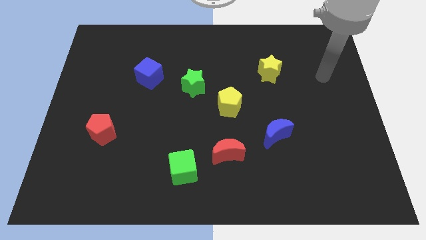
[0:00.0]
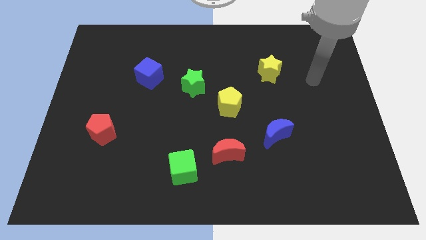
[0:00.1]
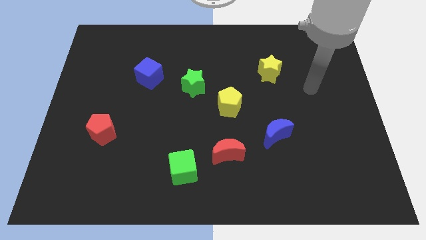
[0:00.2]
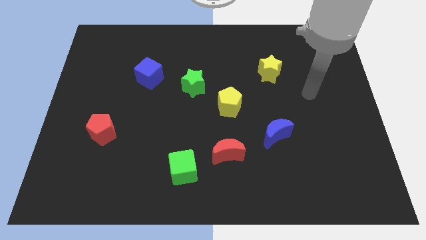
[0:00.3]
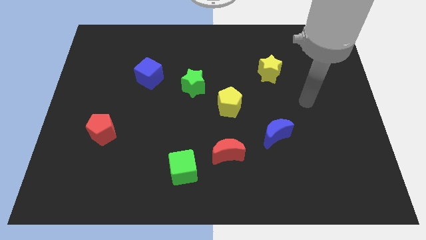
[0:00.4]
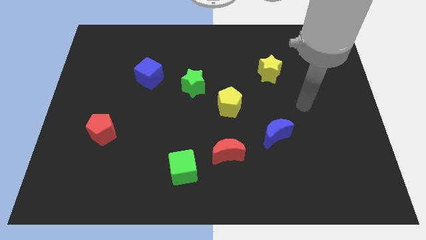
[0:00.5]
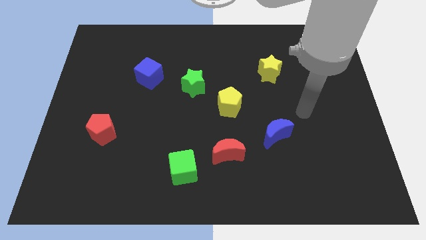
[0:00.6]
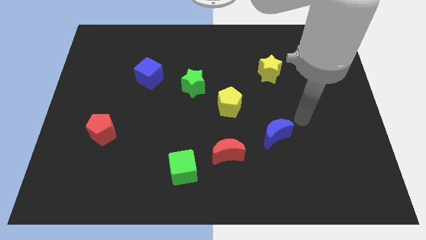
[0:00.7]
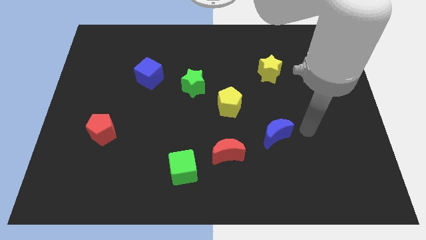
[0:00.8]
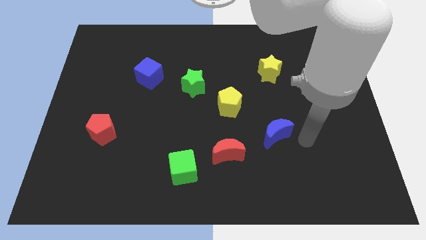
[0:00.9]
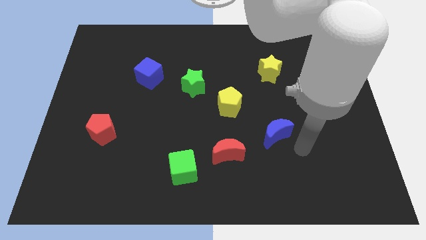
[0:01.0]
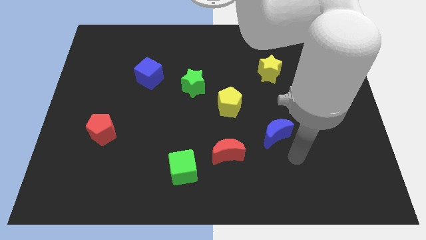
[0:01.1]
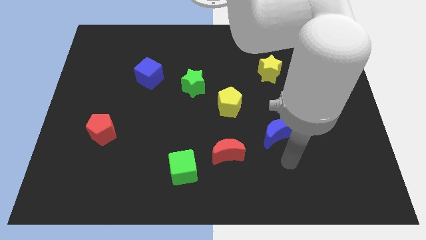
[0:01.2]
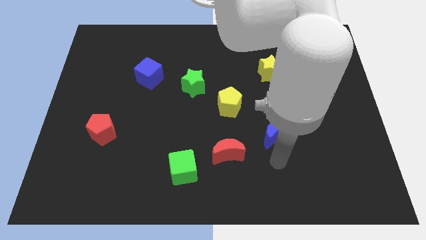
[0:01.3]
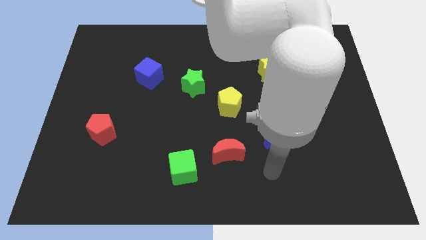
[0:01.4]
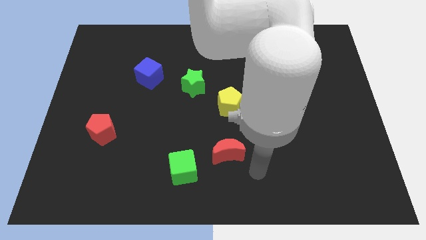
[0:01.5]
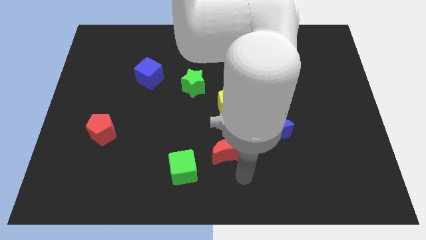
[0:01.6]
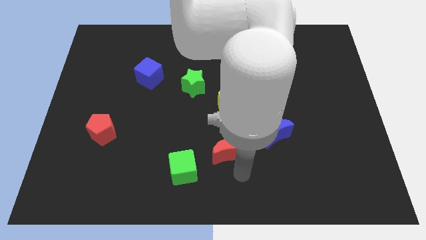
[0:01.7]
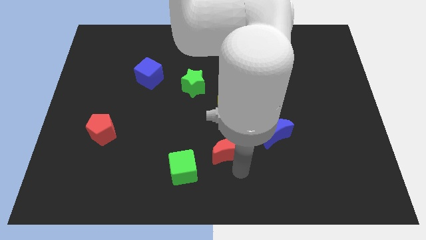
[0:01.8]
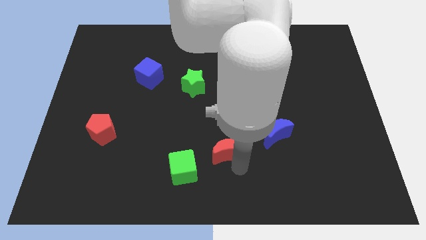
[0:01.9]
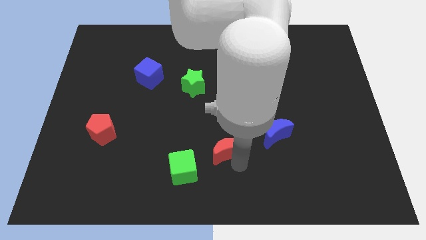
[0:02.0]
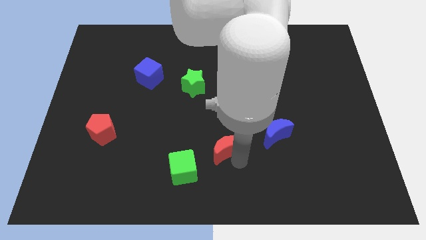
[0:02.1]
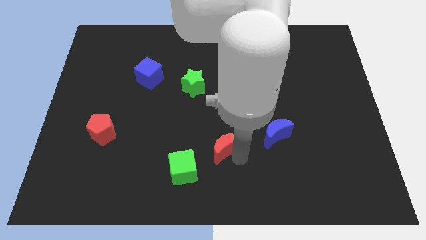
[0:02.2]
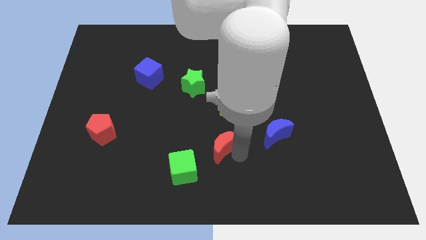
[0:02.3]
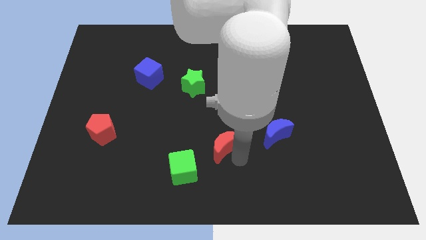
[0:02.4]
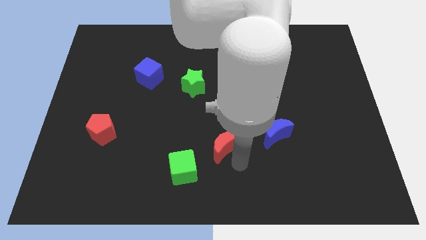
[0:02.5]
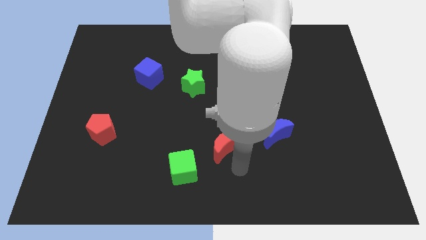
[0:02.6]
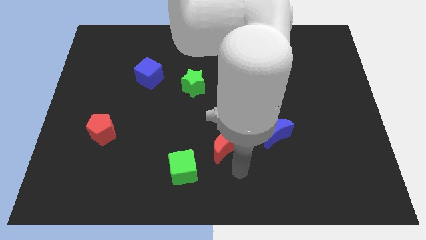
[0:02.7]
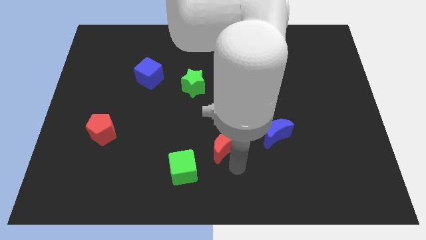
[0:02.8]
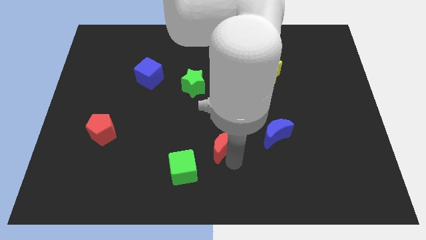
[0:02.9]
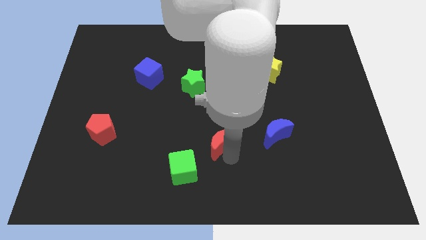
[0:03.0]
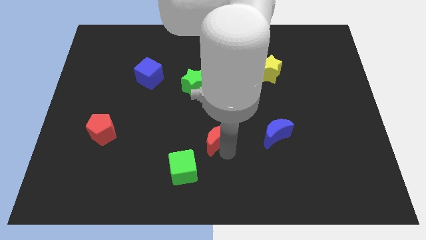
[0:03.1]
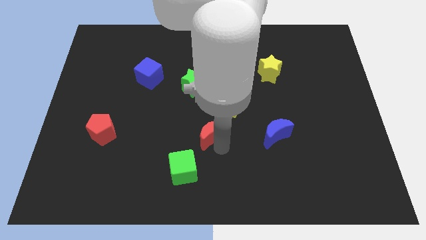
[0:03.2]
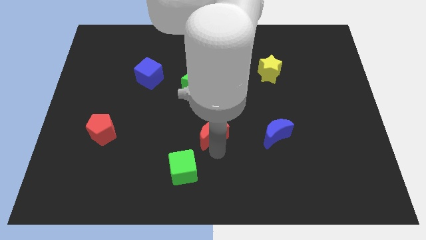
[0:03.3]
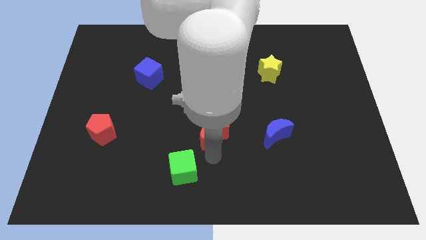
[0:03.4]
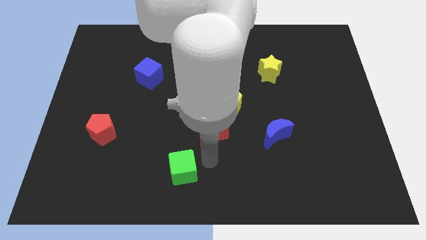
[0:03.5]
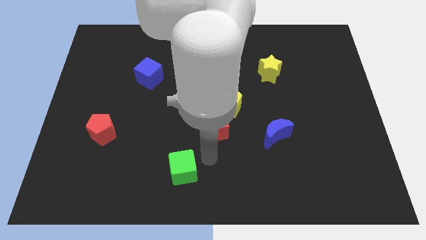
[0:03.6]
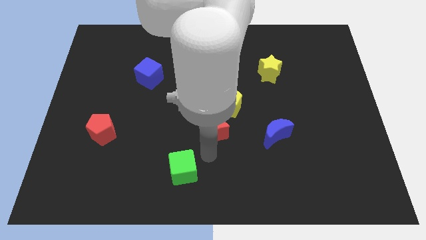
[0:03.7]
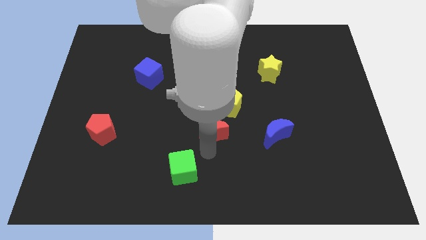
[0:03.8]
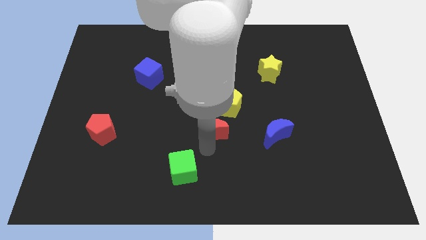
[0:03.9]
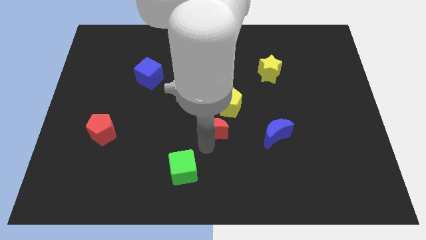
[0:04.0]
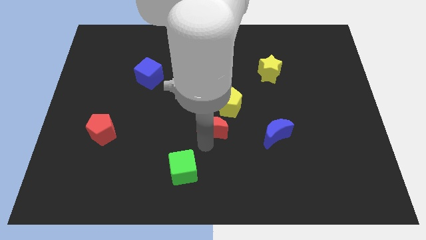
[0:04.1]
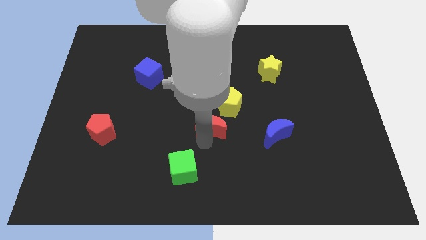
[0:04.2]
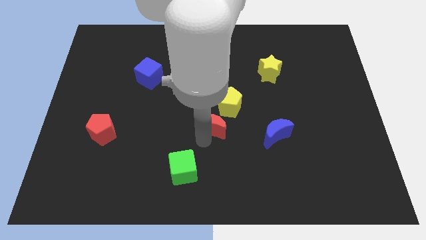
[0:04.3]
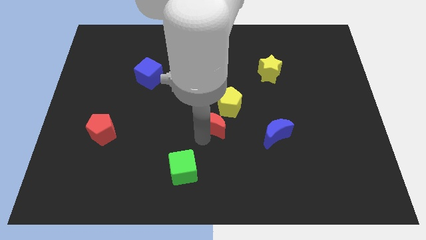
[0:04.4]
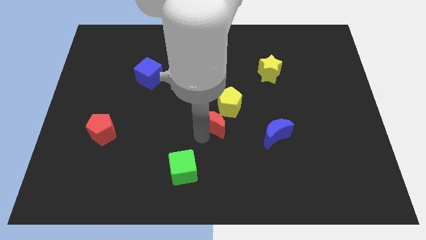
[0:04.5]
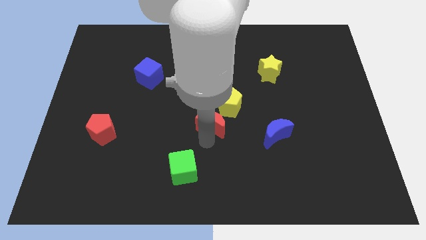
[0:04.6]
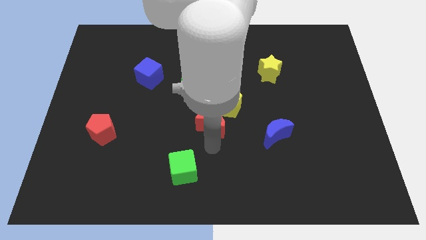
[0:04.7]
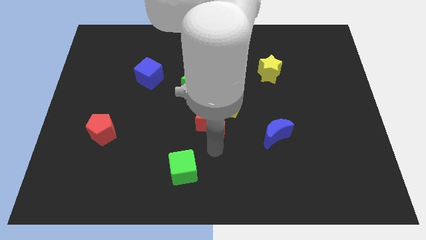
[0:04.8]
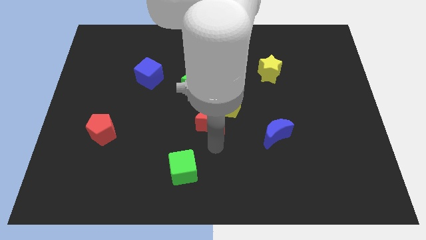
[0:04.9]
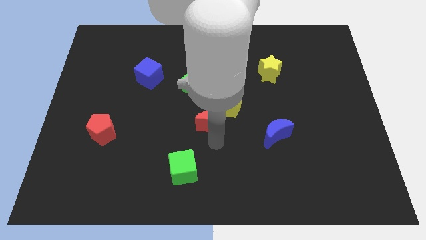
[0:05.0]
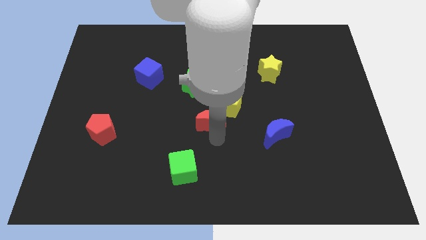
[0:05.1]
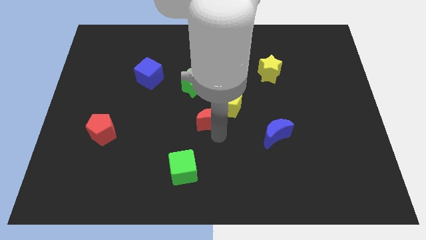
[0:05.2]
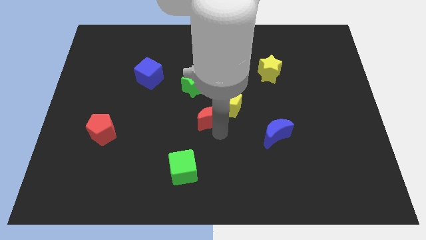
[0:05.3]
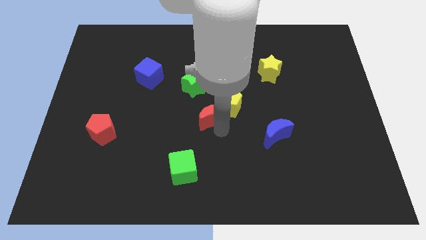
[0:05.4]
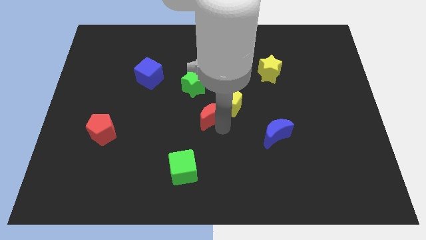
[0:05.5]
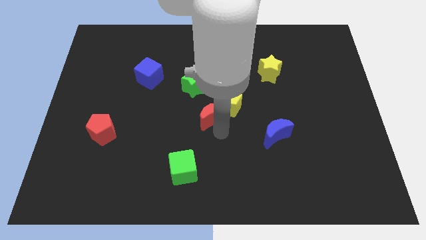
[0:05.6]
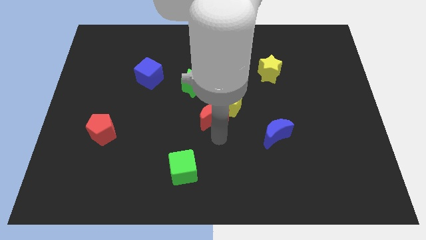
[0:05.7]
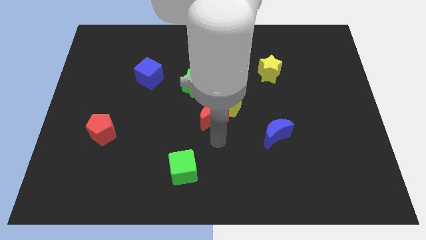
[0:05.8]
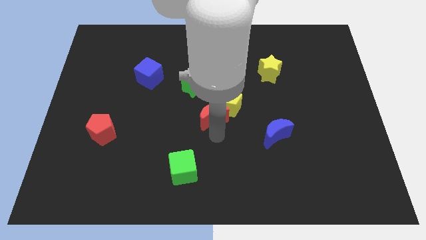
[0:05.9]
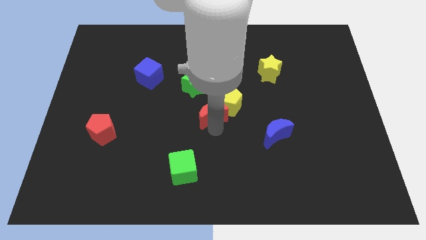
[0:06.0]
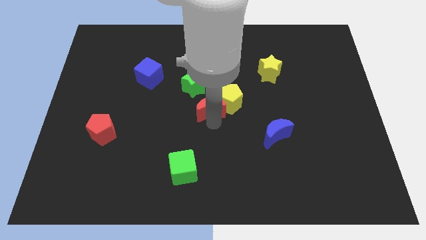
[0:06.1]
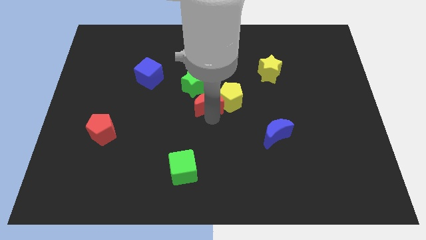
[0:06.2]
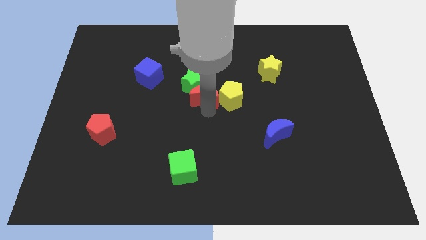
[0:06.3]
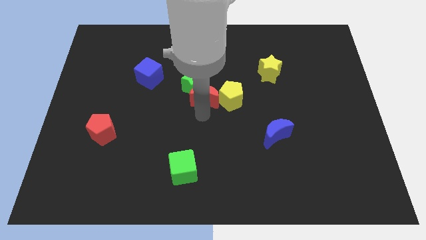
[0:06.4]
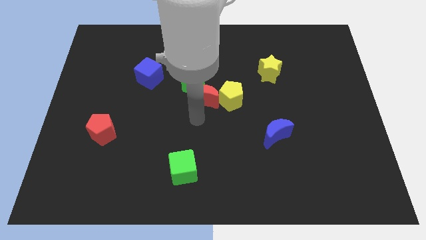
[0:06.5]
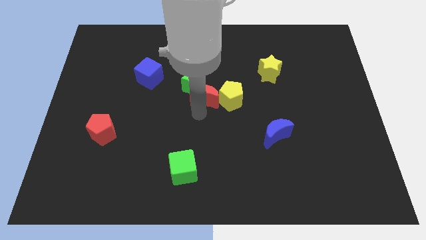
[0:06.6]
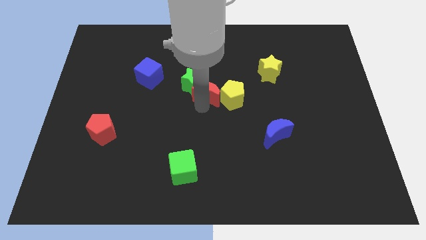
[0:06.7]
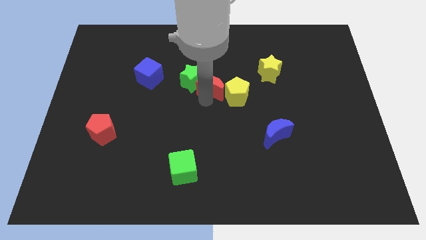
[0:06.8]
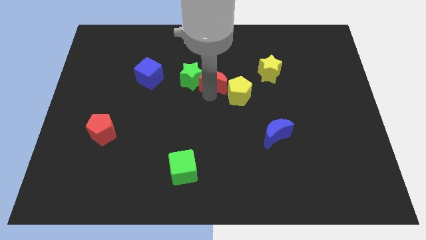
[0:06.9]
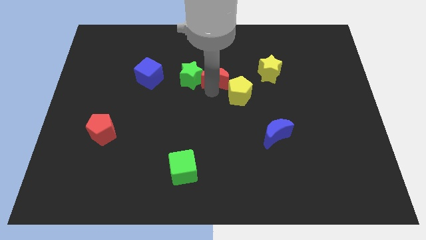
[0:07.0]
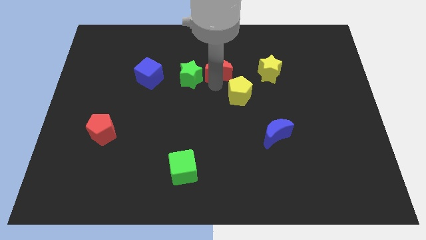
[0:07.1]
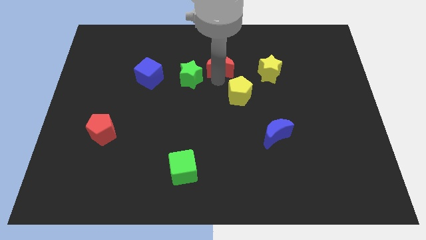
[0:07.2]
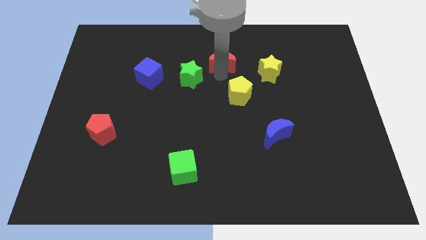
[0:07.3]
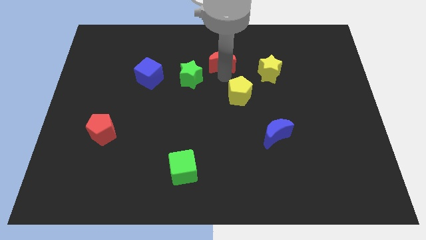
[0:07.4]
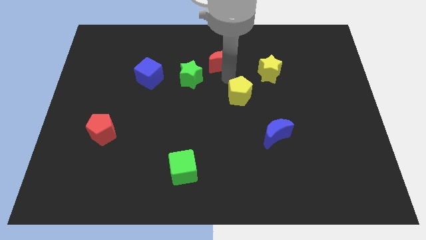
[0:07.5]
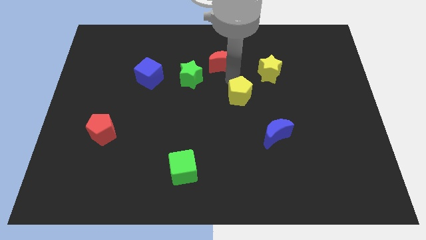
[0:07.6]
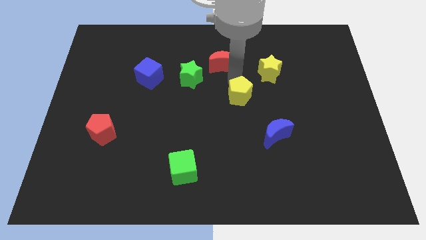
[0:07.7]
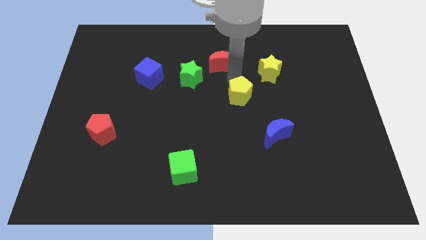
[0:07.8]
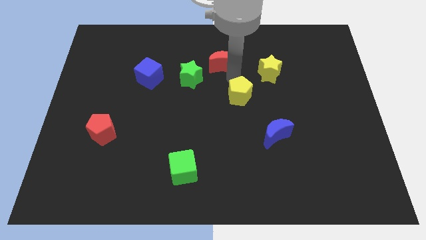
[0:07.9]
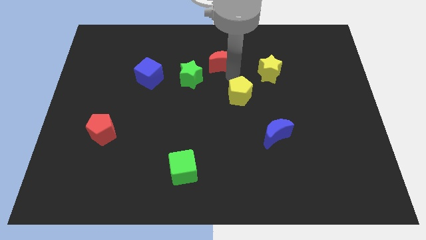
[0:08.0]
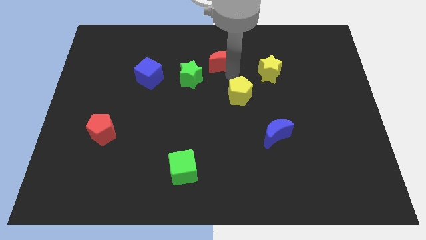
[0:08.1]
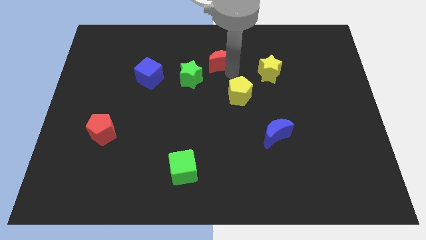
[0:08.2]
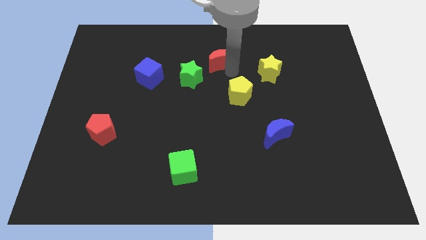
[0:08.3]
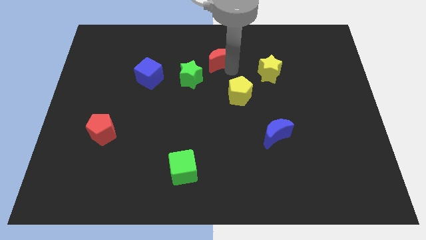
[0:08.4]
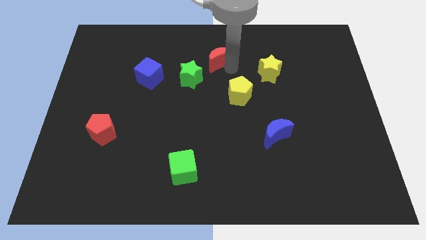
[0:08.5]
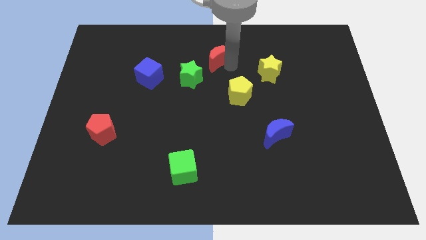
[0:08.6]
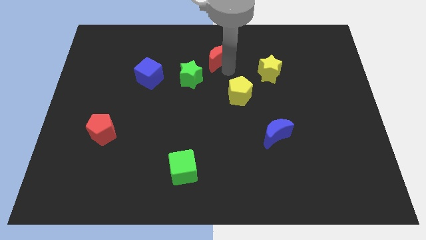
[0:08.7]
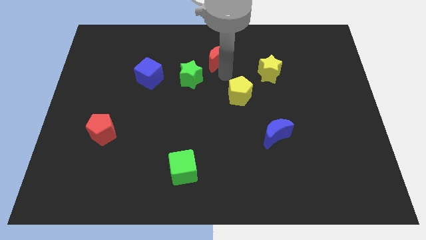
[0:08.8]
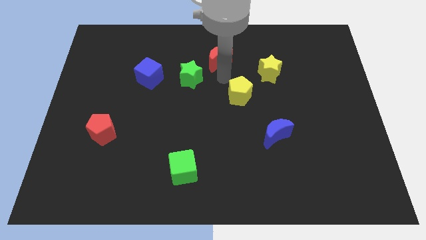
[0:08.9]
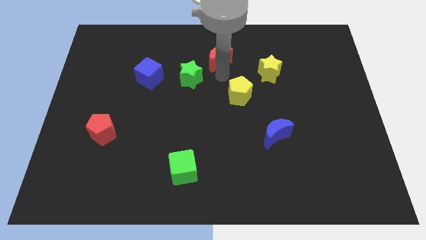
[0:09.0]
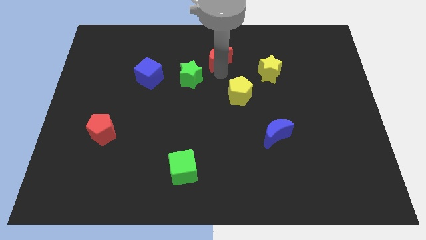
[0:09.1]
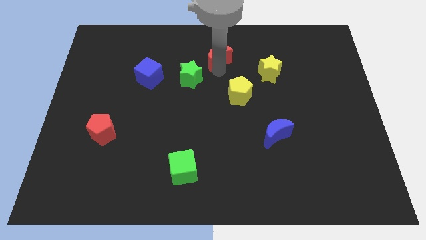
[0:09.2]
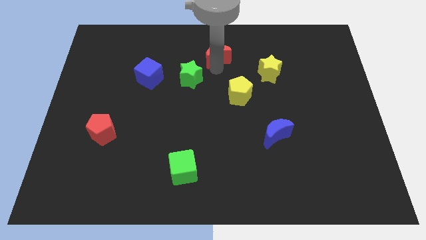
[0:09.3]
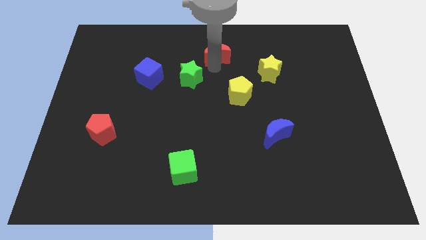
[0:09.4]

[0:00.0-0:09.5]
push the red moon to the towards your base
